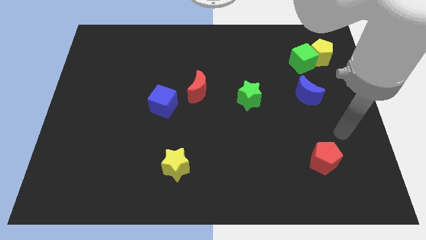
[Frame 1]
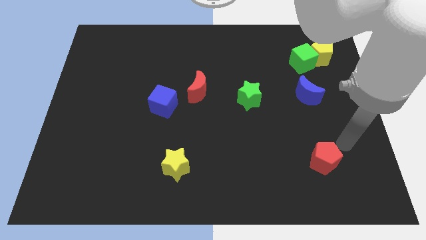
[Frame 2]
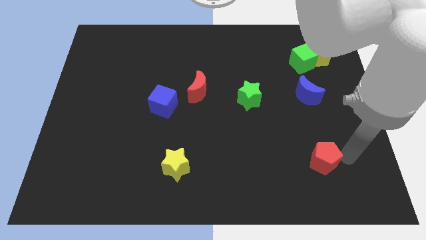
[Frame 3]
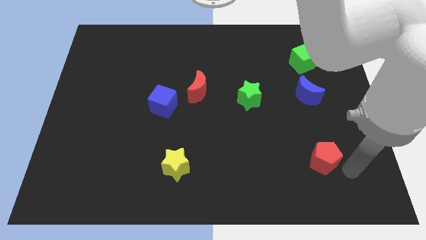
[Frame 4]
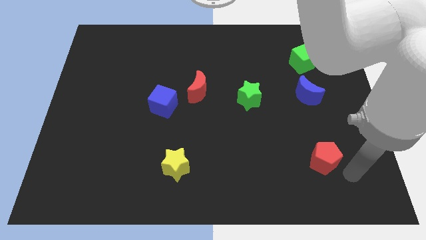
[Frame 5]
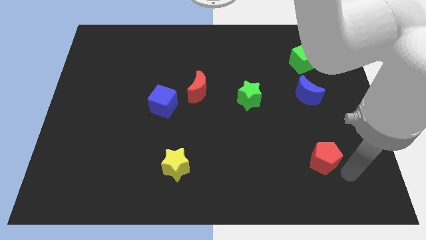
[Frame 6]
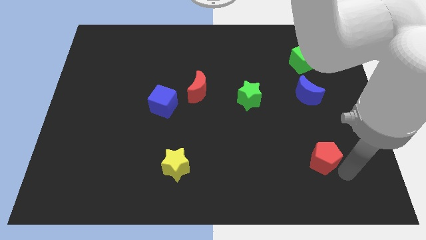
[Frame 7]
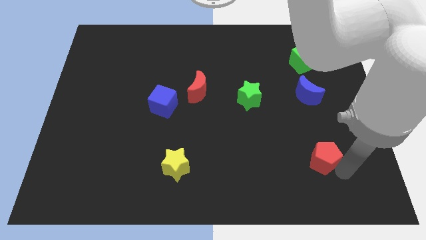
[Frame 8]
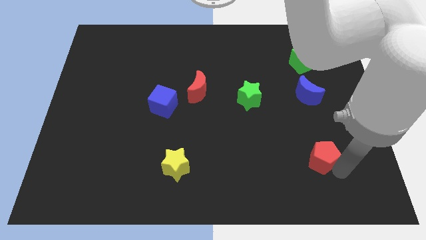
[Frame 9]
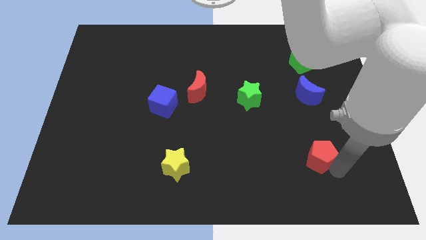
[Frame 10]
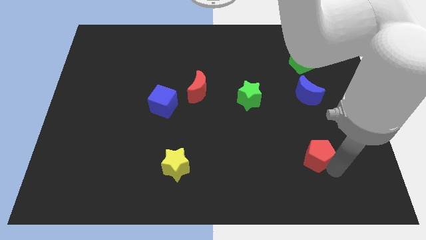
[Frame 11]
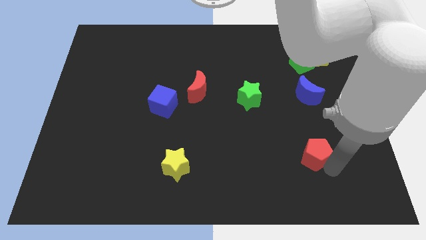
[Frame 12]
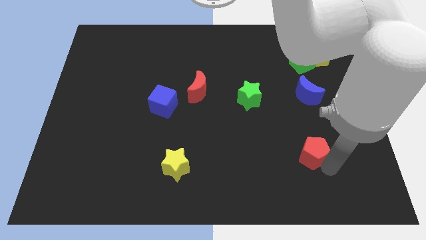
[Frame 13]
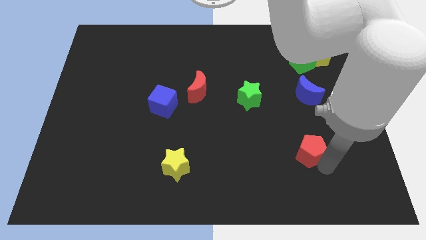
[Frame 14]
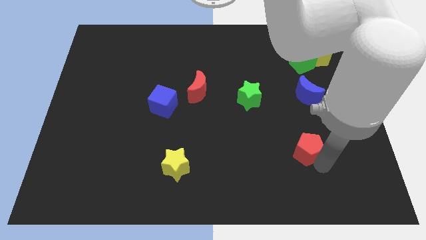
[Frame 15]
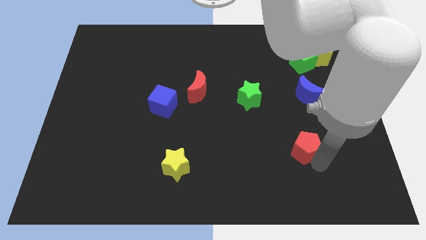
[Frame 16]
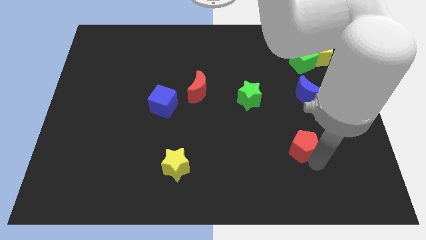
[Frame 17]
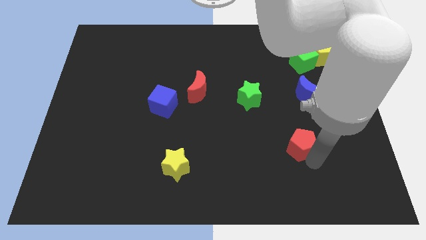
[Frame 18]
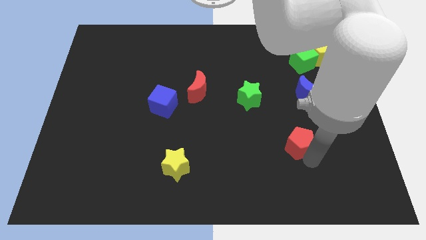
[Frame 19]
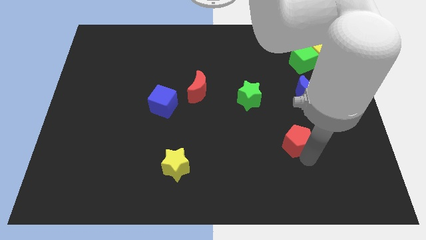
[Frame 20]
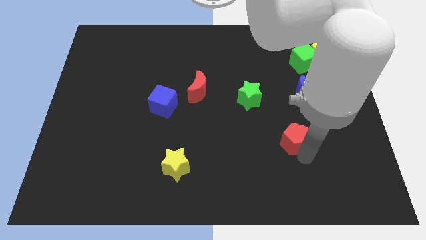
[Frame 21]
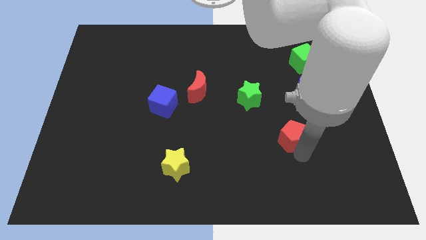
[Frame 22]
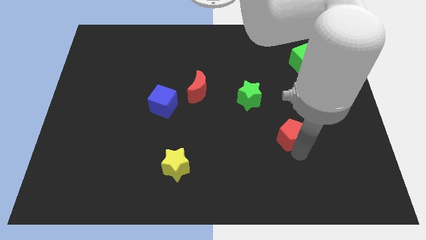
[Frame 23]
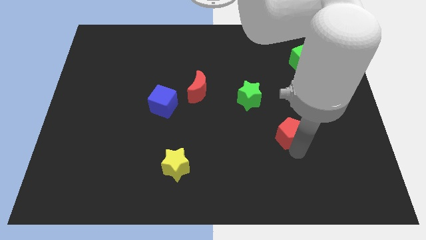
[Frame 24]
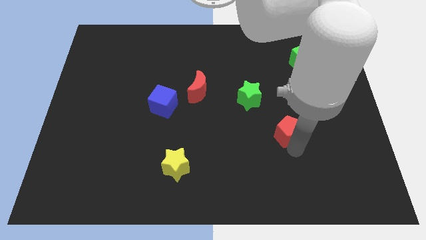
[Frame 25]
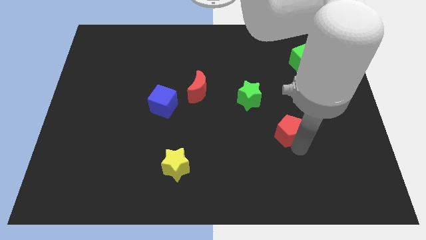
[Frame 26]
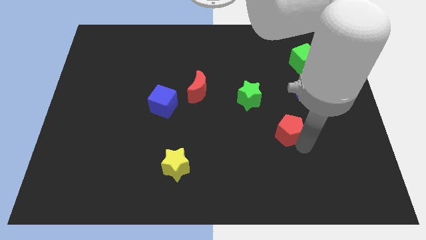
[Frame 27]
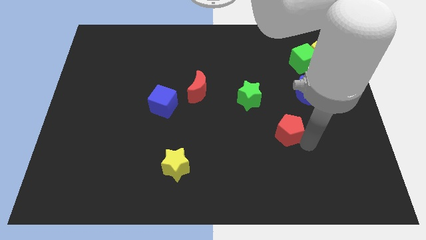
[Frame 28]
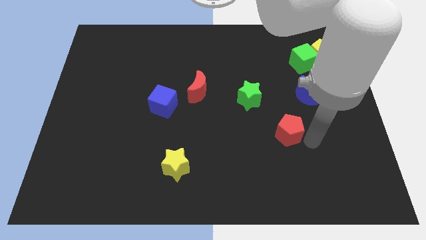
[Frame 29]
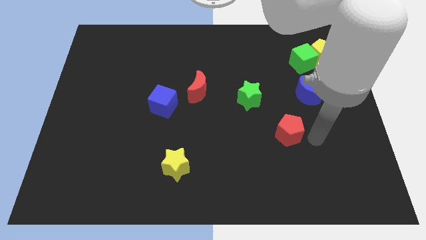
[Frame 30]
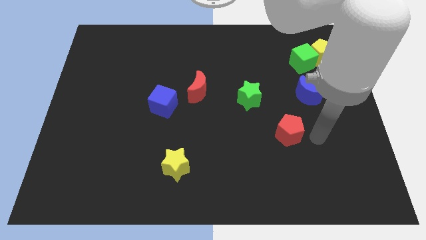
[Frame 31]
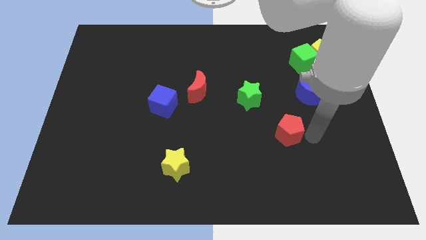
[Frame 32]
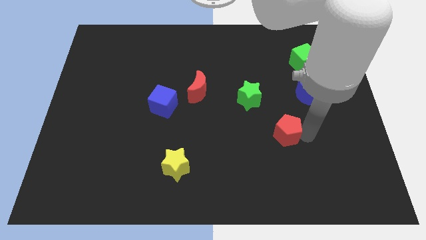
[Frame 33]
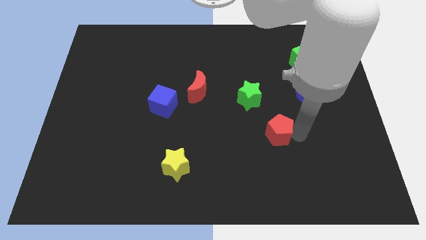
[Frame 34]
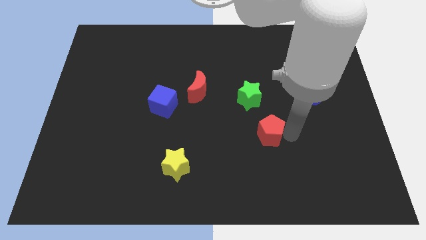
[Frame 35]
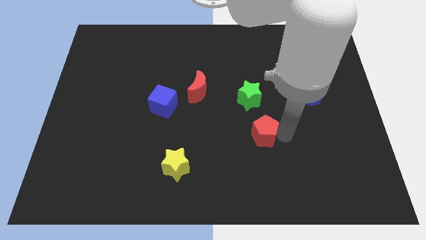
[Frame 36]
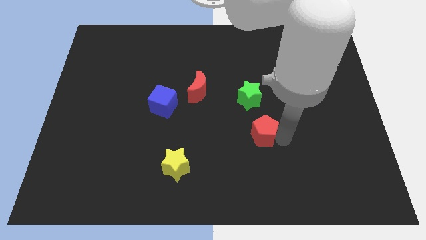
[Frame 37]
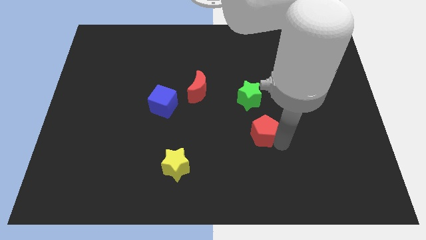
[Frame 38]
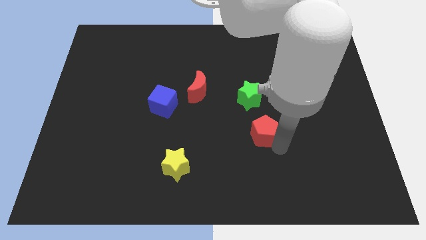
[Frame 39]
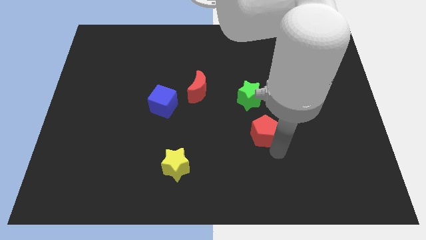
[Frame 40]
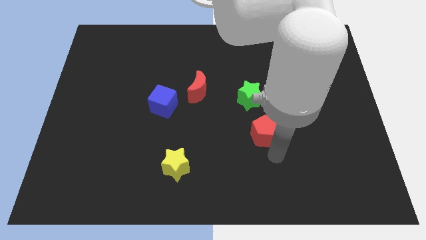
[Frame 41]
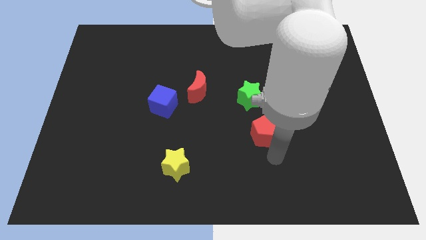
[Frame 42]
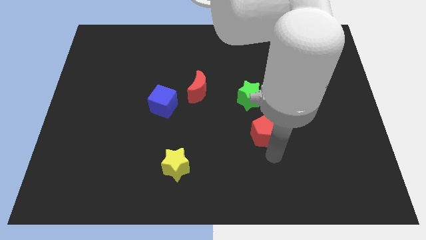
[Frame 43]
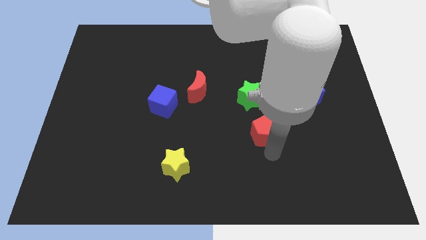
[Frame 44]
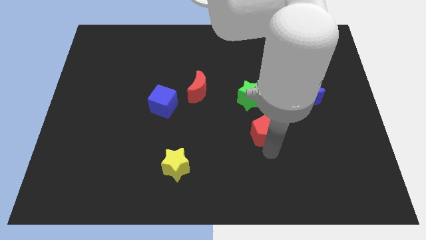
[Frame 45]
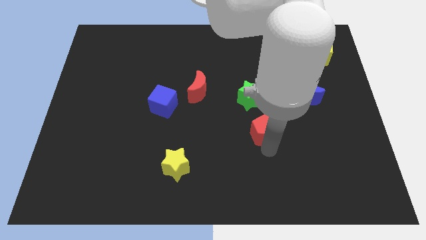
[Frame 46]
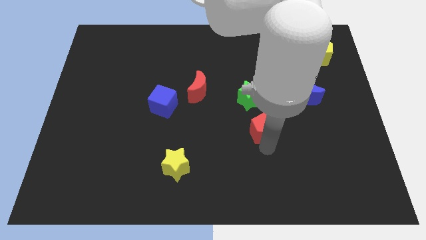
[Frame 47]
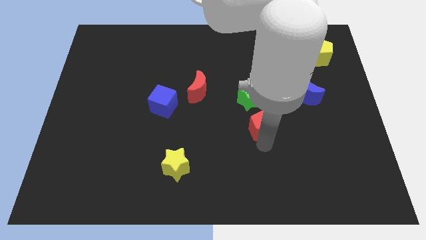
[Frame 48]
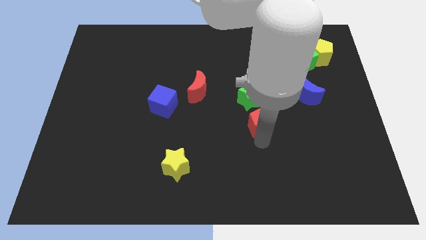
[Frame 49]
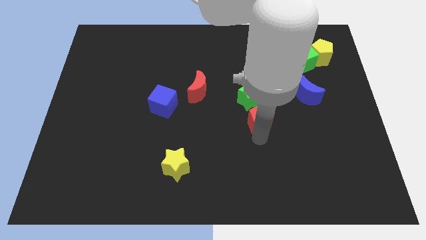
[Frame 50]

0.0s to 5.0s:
slide the red pentagon to the center of the board

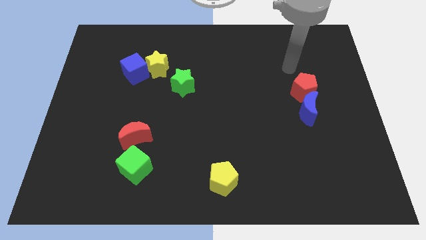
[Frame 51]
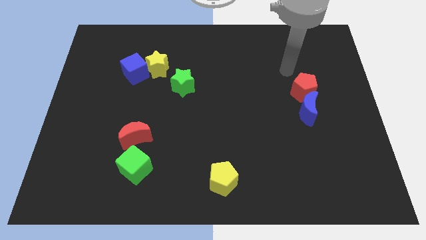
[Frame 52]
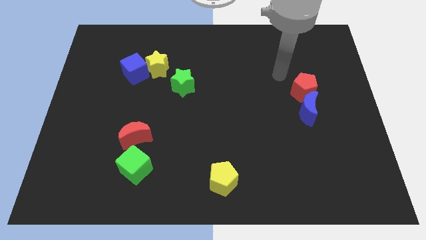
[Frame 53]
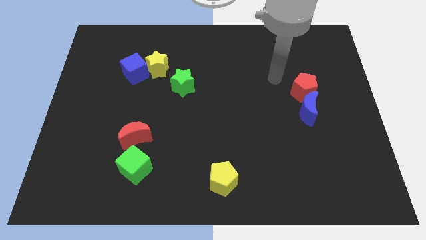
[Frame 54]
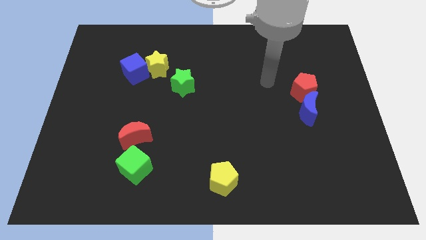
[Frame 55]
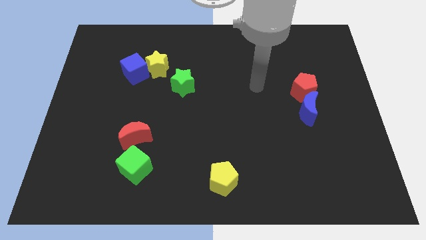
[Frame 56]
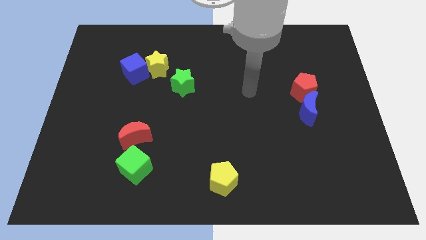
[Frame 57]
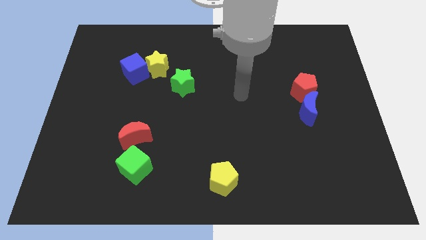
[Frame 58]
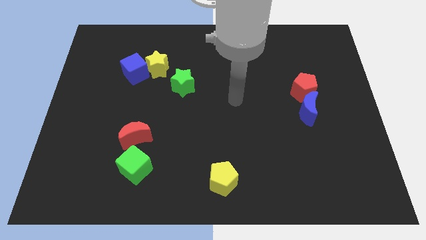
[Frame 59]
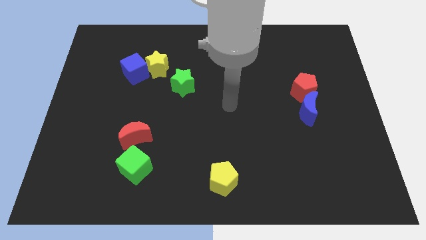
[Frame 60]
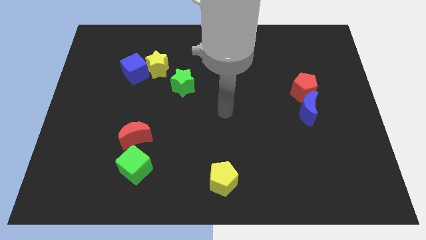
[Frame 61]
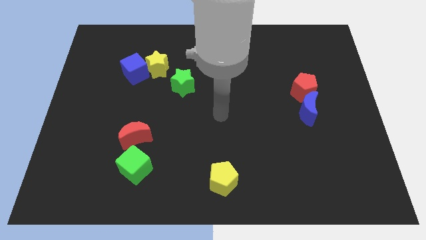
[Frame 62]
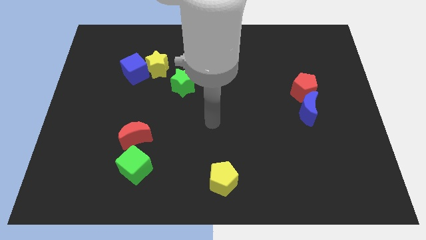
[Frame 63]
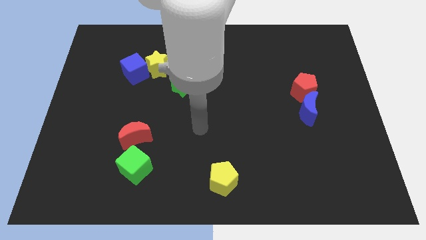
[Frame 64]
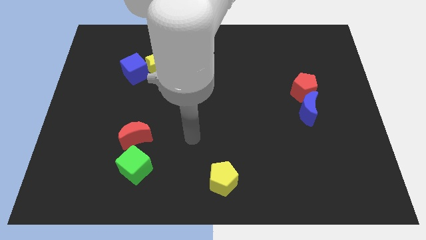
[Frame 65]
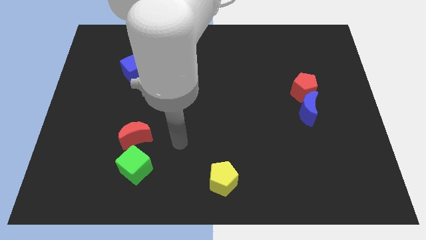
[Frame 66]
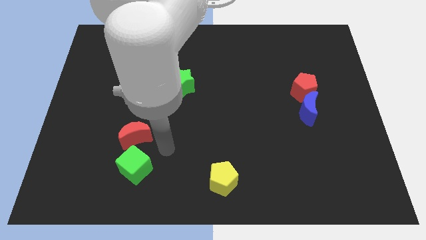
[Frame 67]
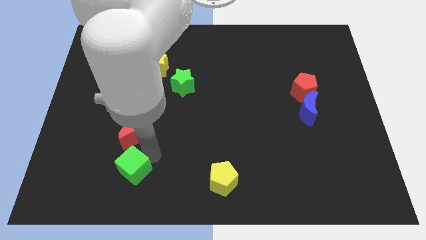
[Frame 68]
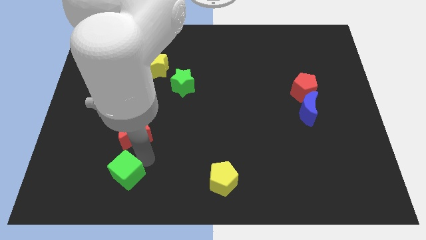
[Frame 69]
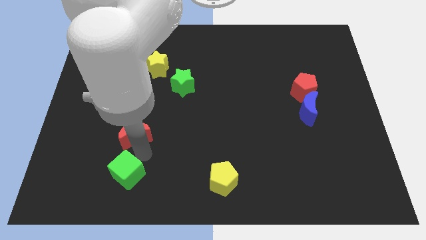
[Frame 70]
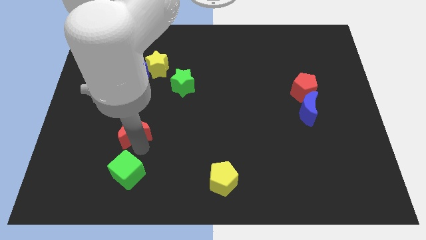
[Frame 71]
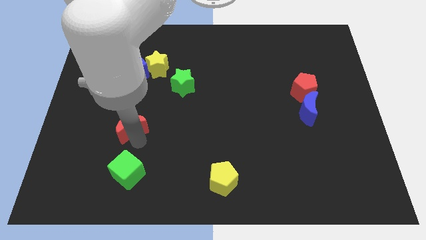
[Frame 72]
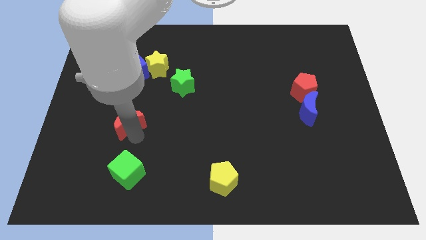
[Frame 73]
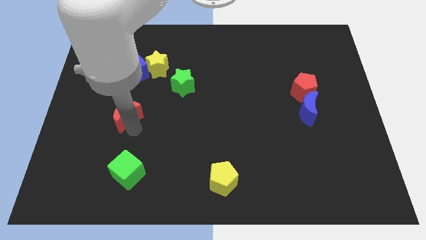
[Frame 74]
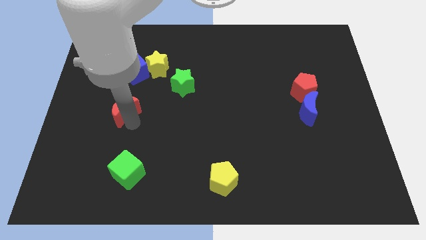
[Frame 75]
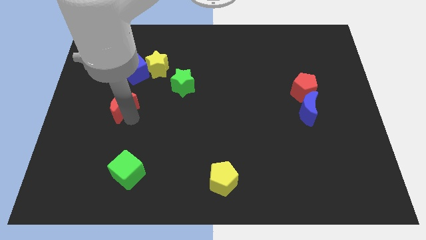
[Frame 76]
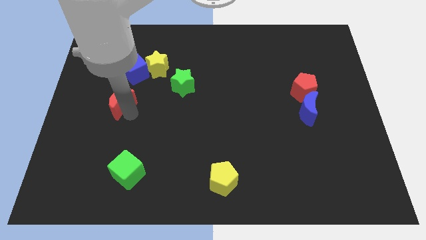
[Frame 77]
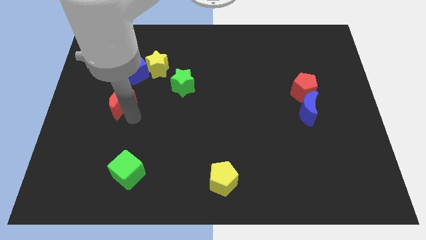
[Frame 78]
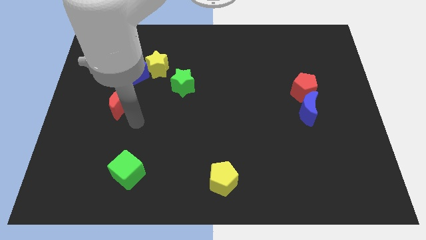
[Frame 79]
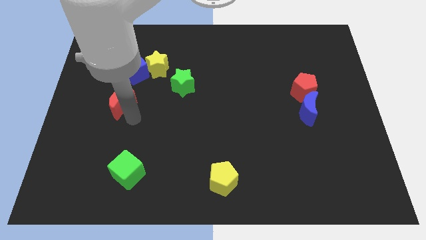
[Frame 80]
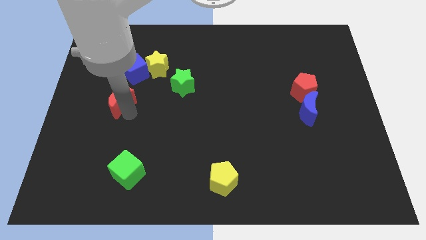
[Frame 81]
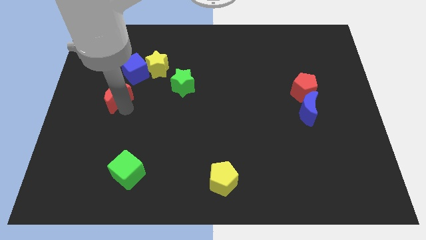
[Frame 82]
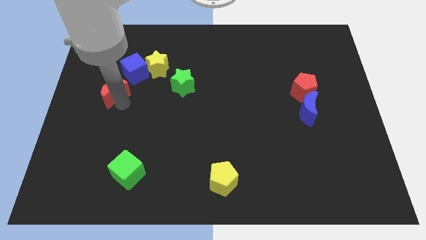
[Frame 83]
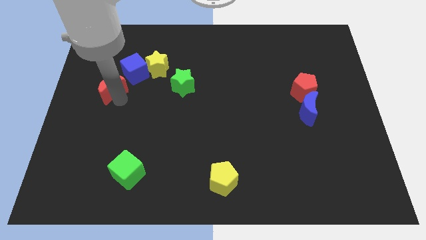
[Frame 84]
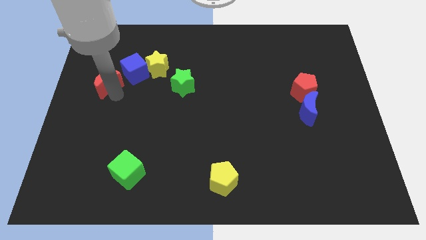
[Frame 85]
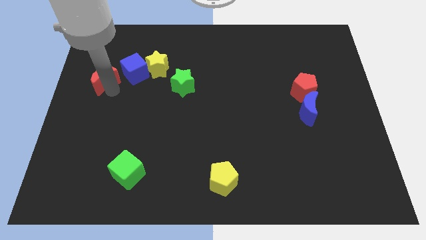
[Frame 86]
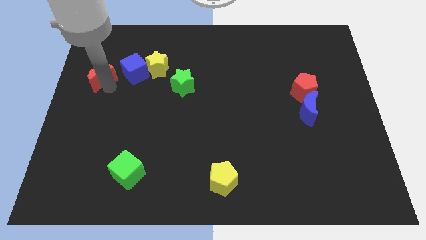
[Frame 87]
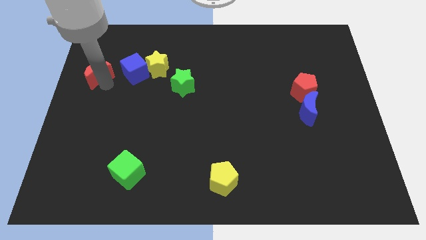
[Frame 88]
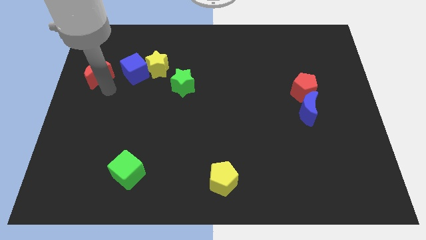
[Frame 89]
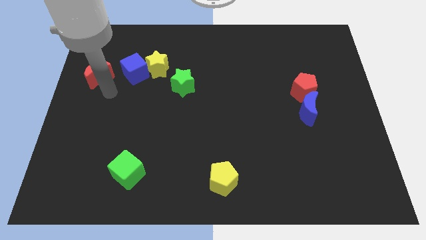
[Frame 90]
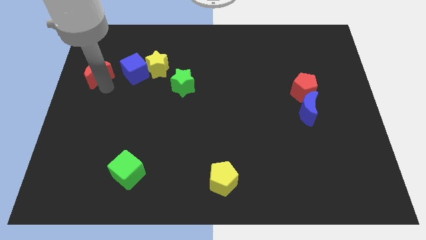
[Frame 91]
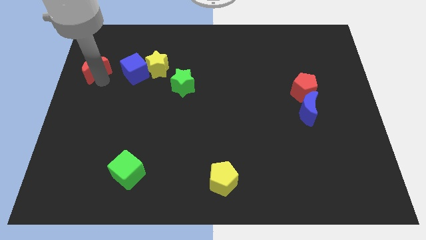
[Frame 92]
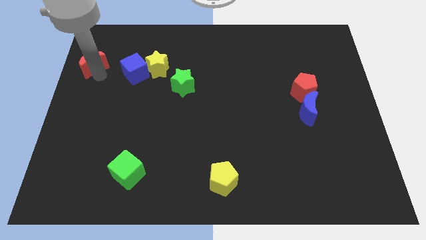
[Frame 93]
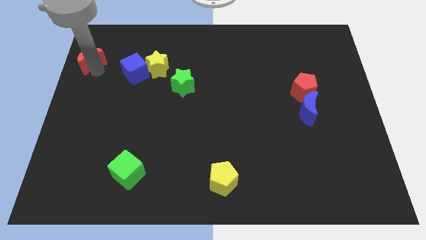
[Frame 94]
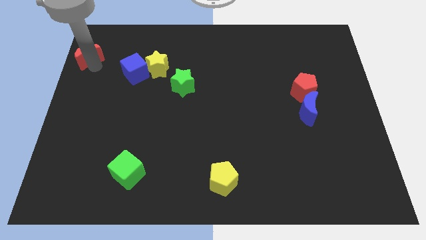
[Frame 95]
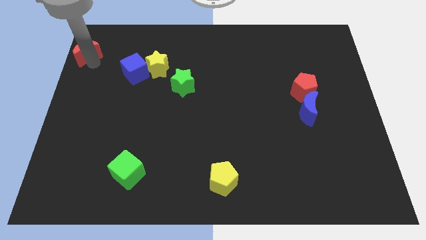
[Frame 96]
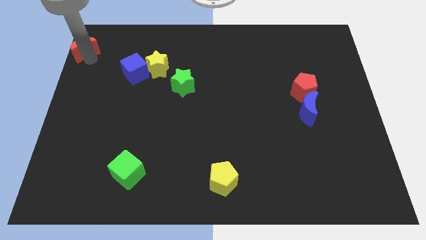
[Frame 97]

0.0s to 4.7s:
slide the red moon to the upper left corner
